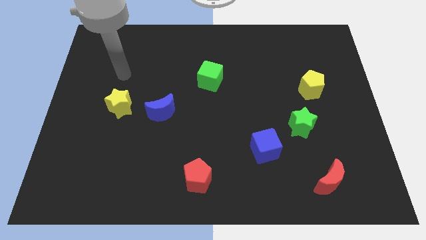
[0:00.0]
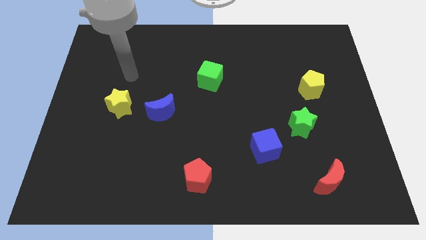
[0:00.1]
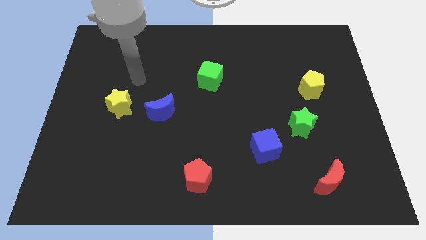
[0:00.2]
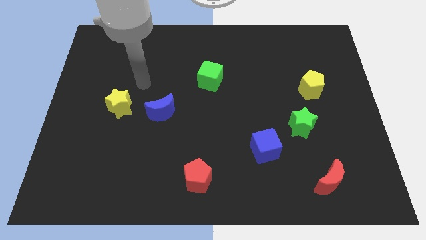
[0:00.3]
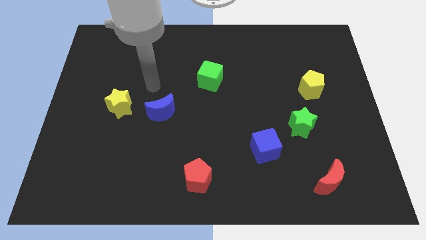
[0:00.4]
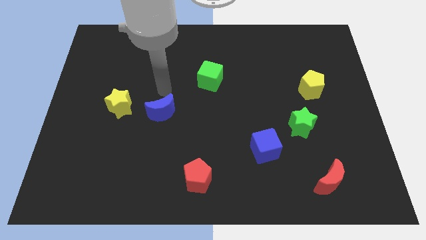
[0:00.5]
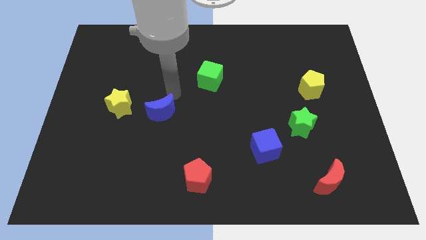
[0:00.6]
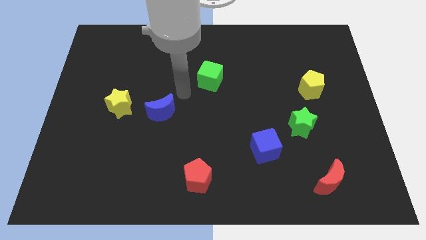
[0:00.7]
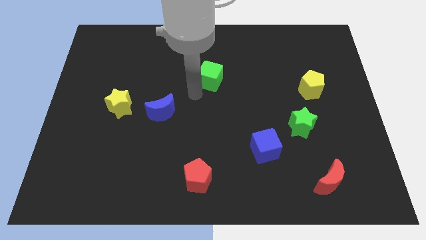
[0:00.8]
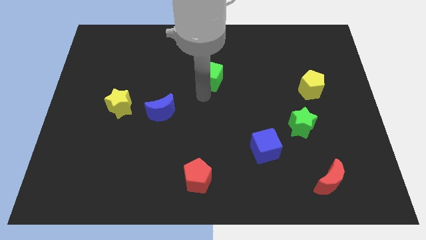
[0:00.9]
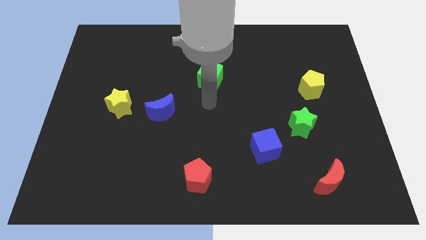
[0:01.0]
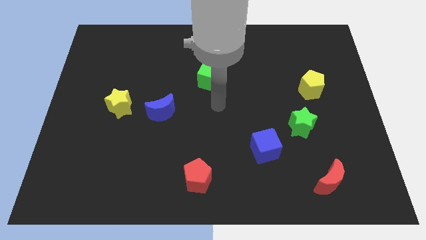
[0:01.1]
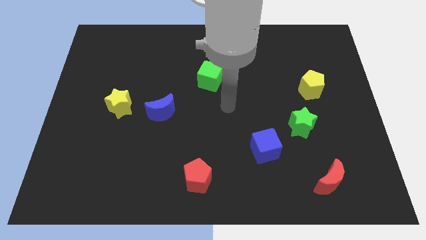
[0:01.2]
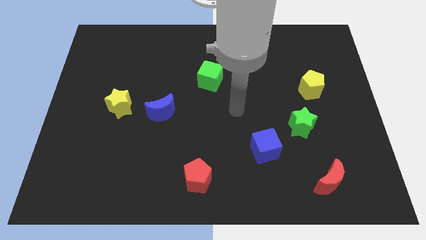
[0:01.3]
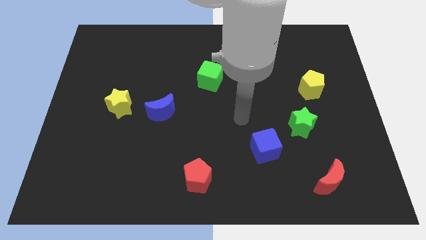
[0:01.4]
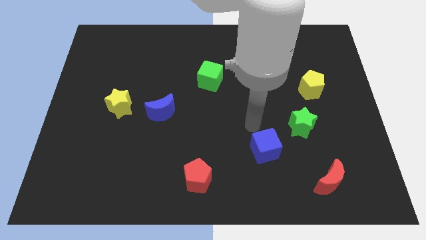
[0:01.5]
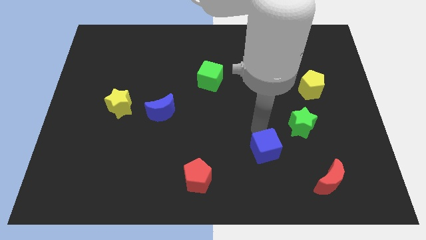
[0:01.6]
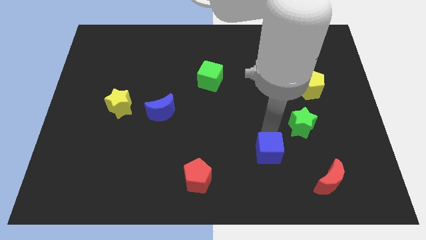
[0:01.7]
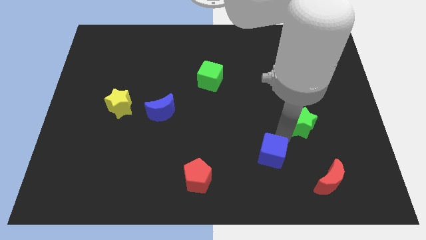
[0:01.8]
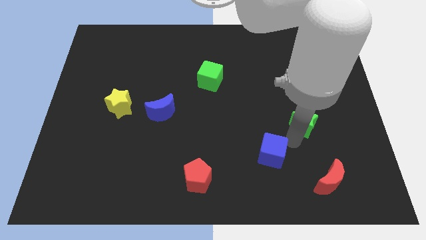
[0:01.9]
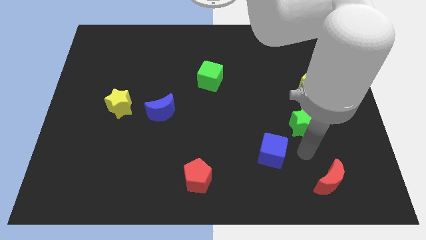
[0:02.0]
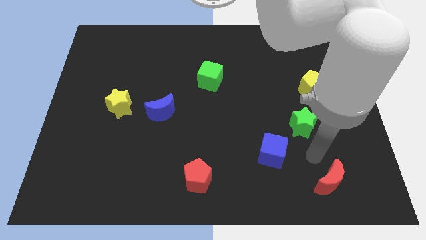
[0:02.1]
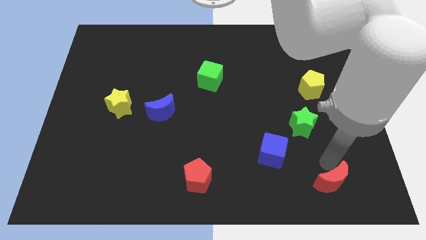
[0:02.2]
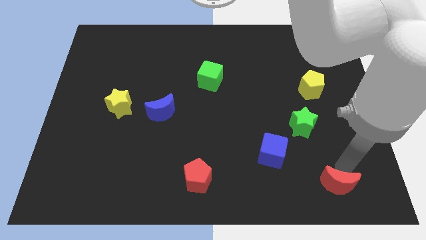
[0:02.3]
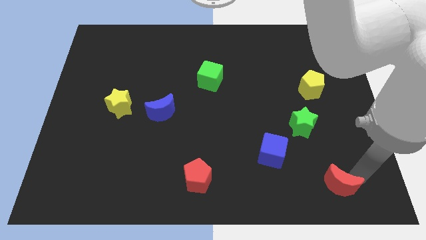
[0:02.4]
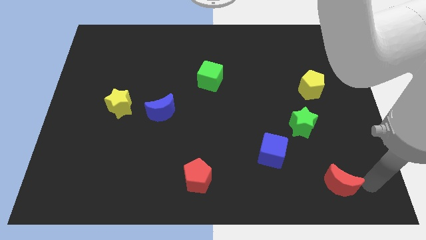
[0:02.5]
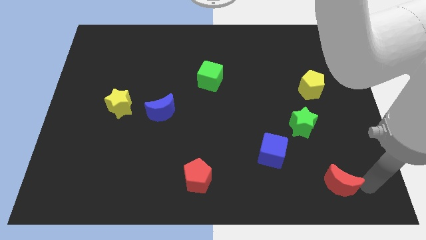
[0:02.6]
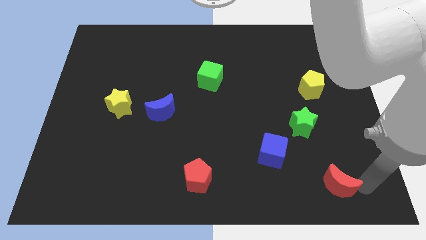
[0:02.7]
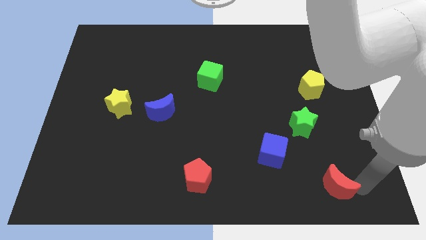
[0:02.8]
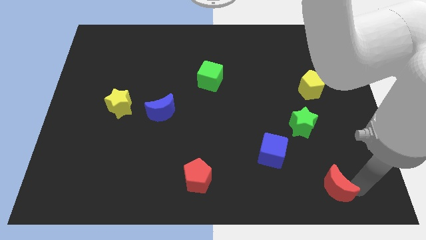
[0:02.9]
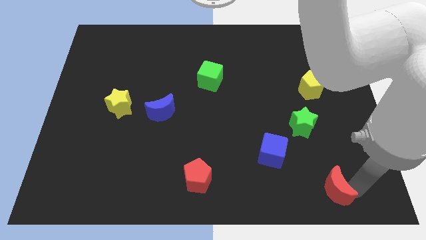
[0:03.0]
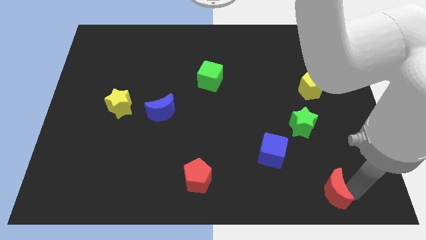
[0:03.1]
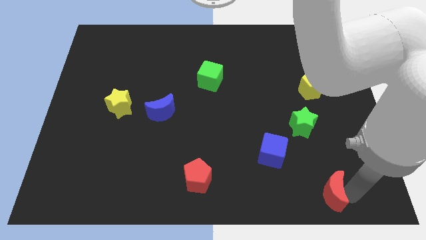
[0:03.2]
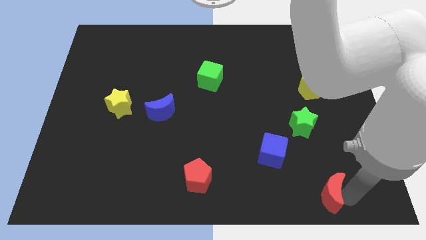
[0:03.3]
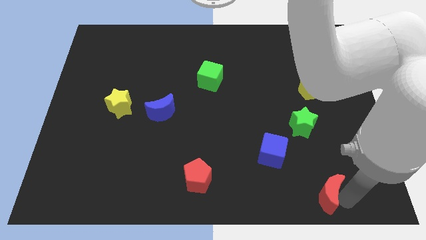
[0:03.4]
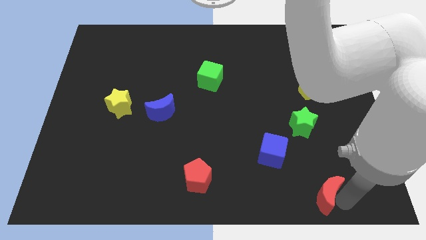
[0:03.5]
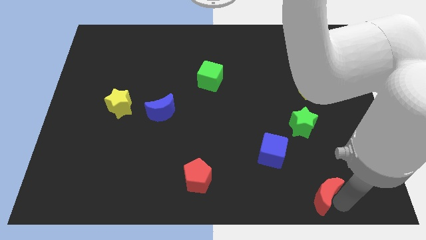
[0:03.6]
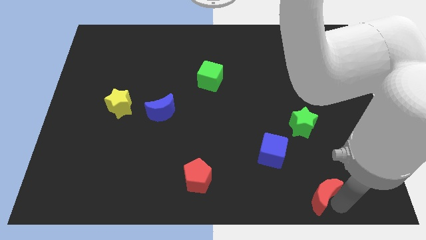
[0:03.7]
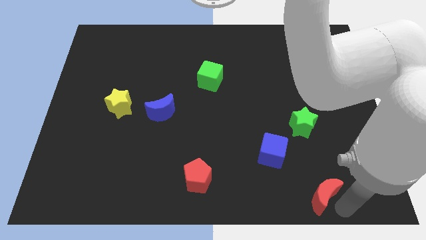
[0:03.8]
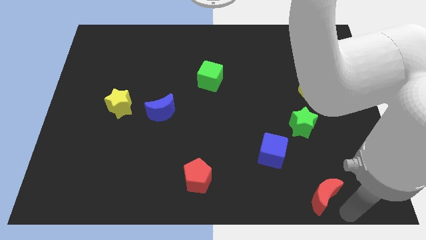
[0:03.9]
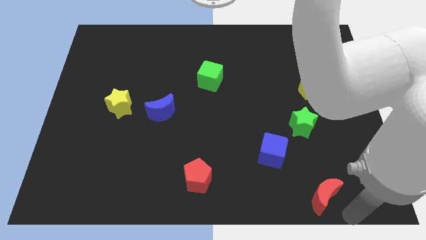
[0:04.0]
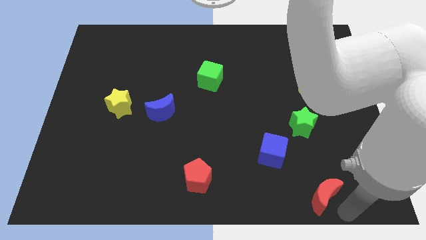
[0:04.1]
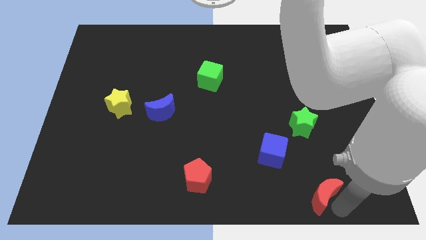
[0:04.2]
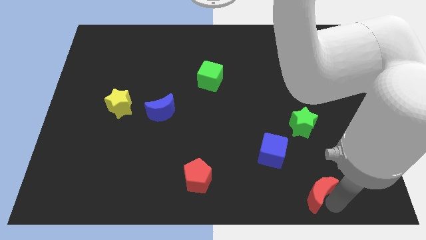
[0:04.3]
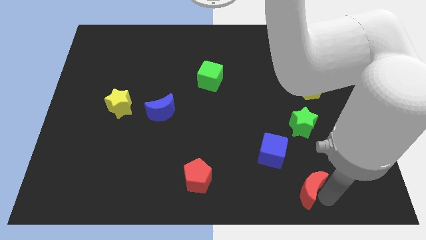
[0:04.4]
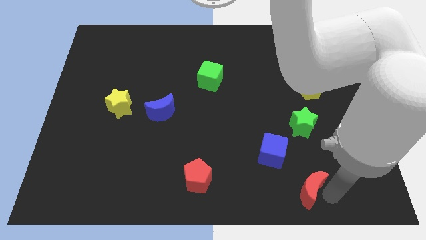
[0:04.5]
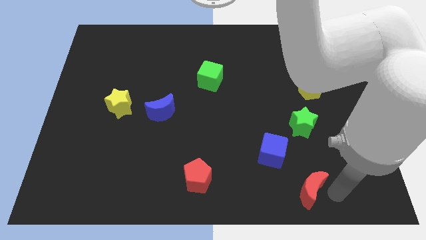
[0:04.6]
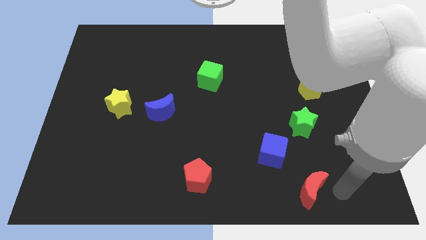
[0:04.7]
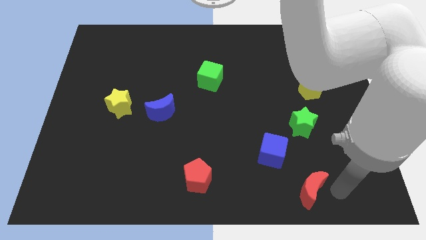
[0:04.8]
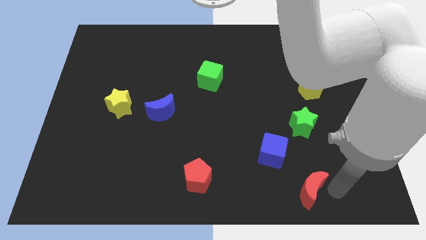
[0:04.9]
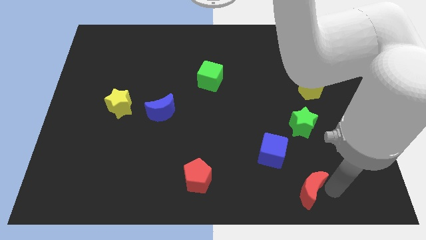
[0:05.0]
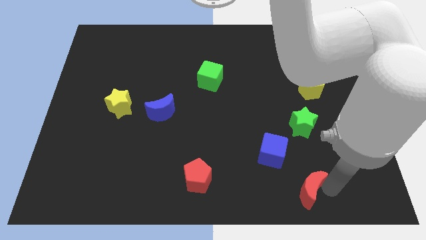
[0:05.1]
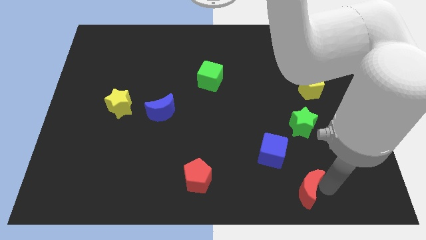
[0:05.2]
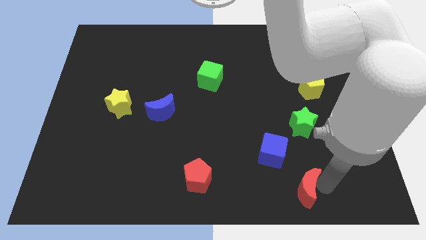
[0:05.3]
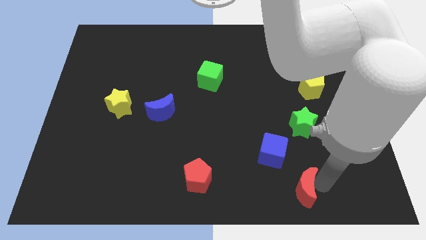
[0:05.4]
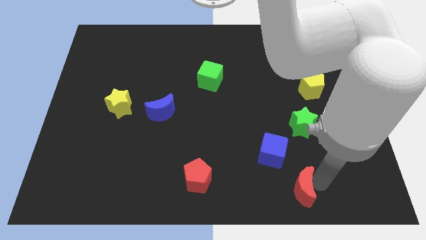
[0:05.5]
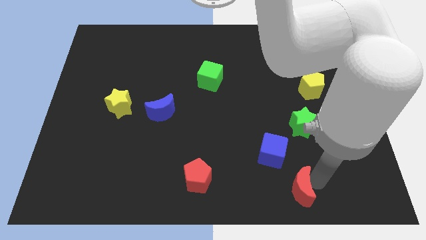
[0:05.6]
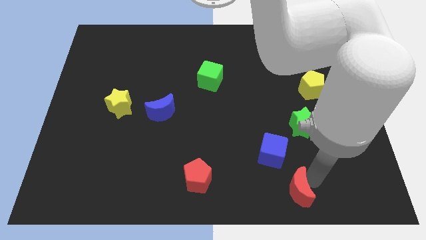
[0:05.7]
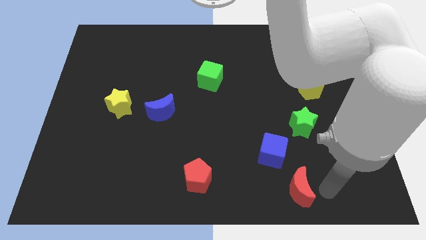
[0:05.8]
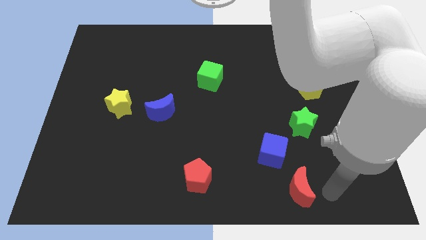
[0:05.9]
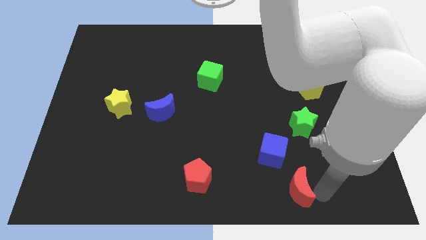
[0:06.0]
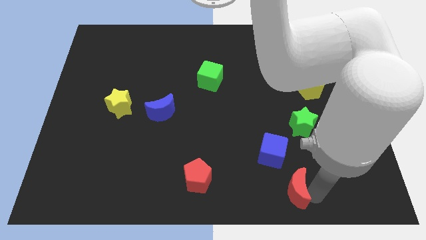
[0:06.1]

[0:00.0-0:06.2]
move the red moon left a bit

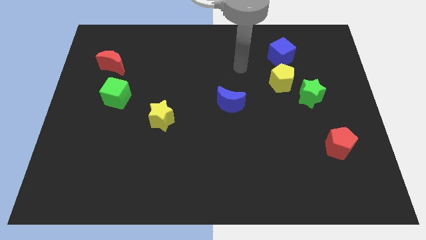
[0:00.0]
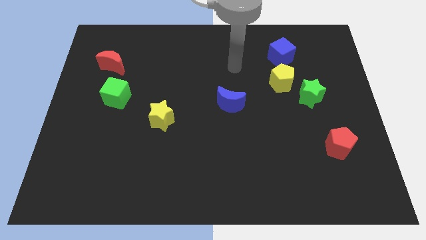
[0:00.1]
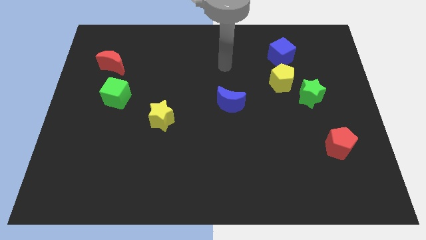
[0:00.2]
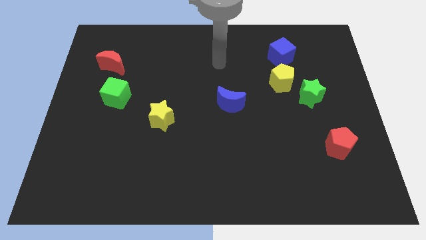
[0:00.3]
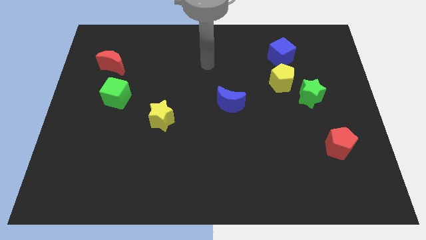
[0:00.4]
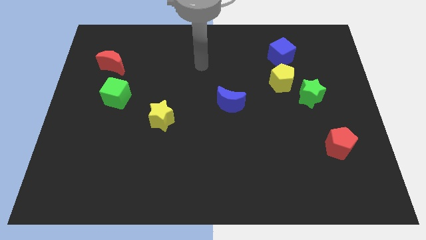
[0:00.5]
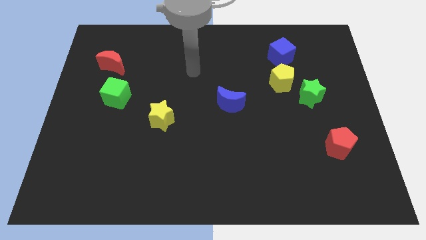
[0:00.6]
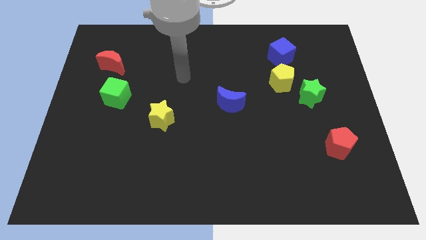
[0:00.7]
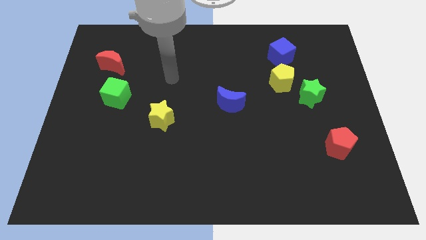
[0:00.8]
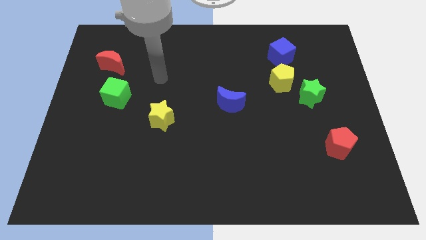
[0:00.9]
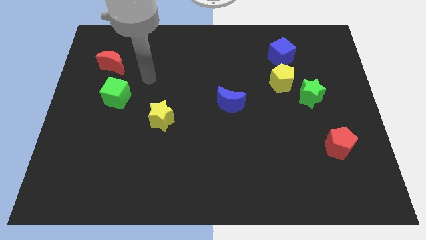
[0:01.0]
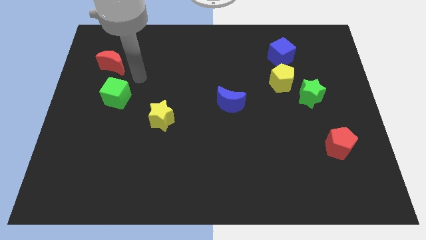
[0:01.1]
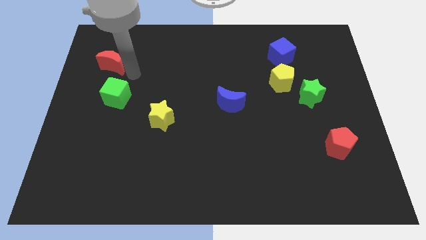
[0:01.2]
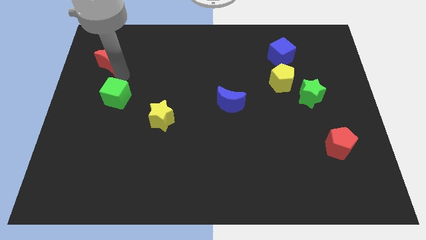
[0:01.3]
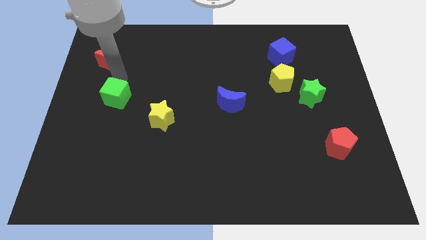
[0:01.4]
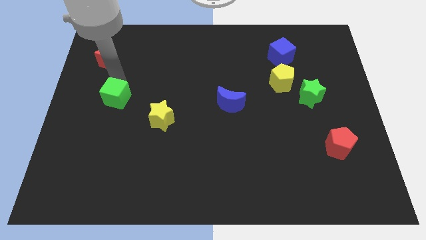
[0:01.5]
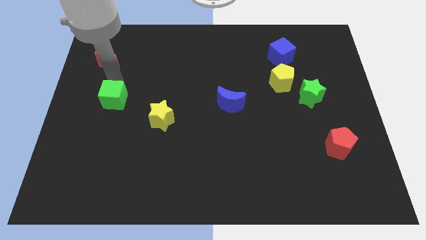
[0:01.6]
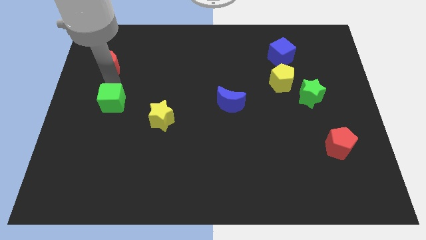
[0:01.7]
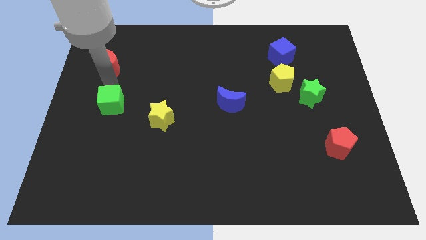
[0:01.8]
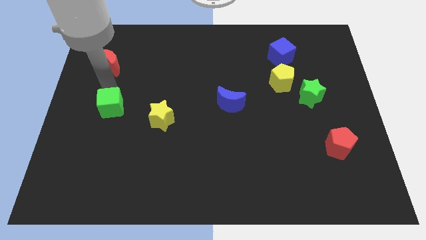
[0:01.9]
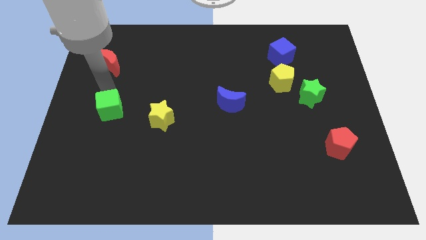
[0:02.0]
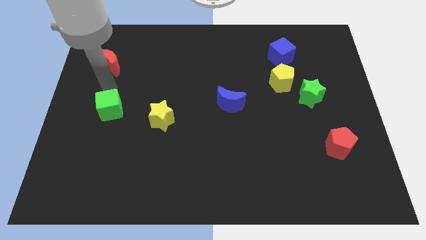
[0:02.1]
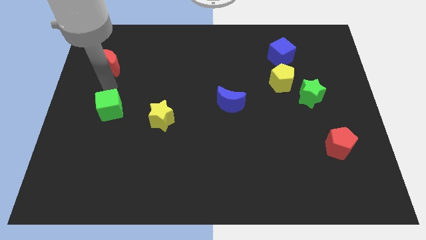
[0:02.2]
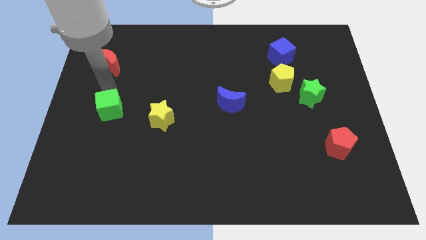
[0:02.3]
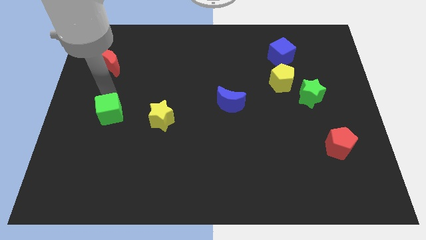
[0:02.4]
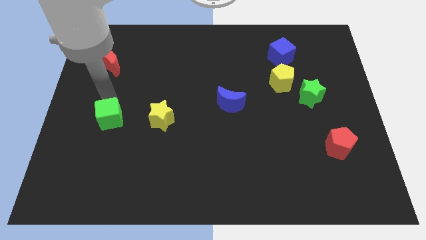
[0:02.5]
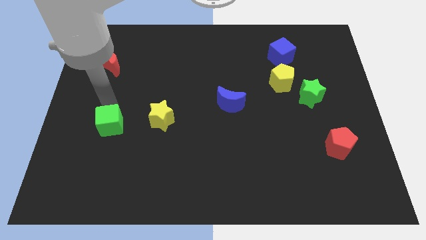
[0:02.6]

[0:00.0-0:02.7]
push the green cube somewhat down
